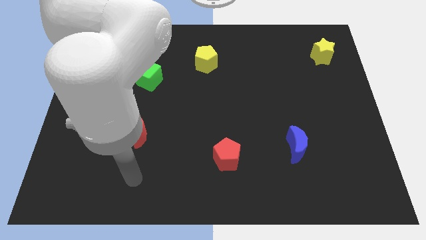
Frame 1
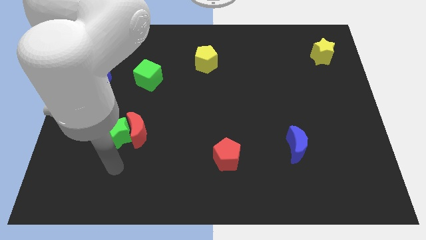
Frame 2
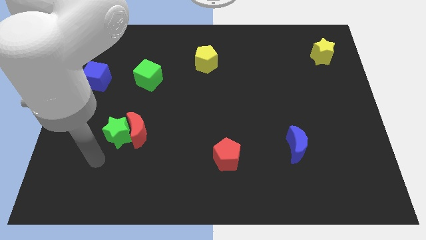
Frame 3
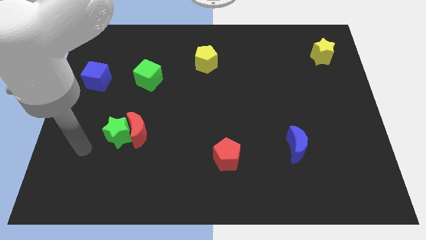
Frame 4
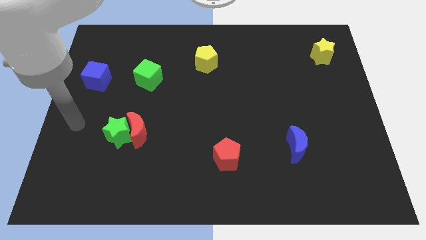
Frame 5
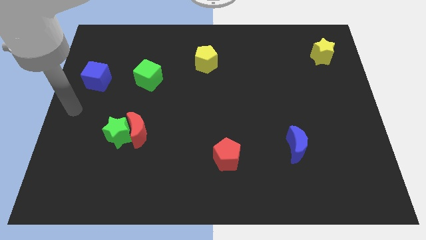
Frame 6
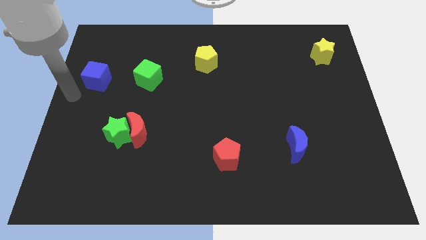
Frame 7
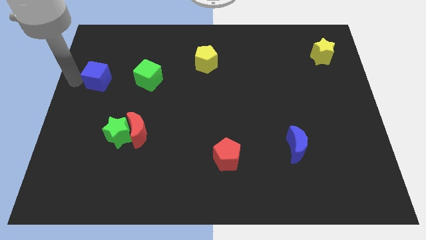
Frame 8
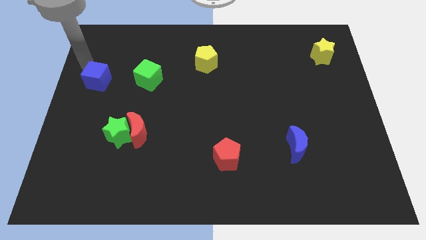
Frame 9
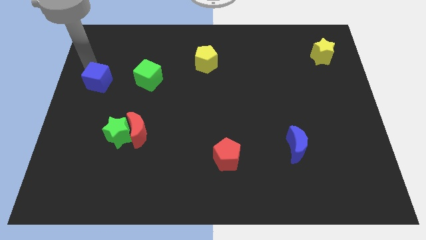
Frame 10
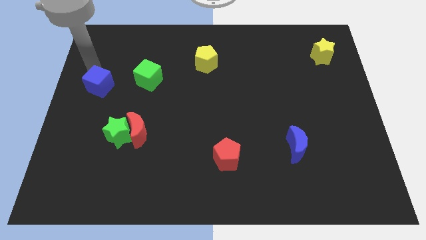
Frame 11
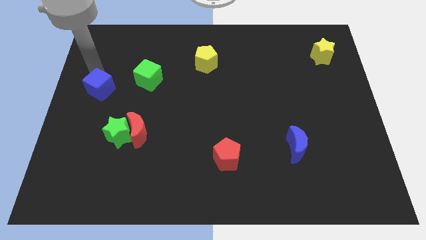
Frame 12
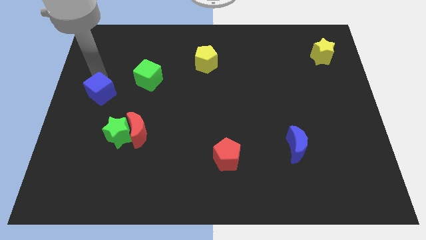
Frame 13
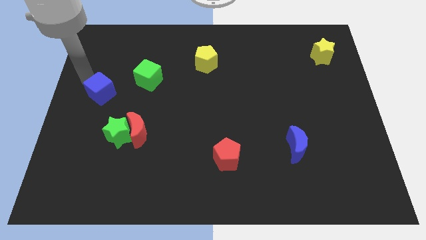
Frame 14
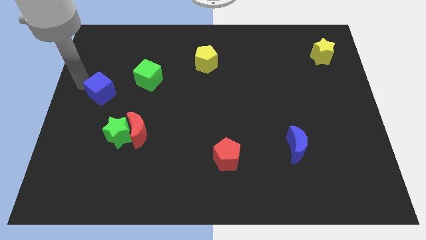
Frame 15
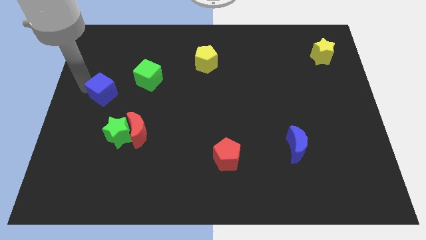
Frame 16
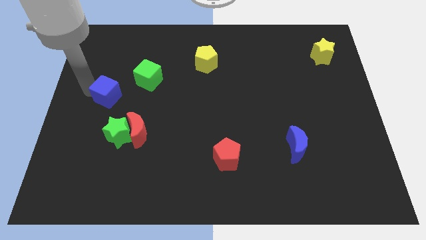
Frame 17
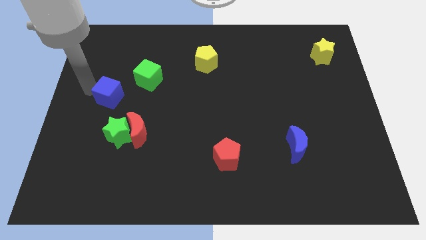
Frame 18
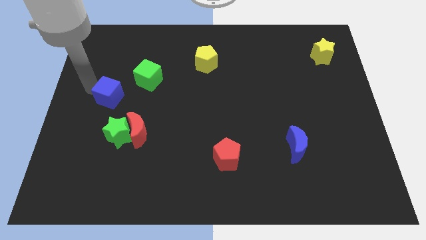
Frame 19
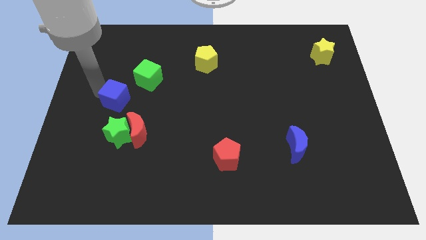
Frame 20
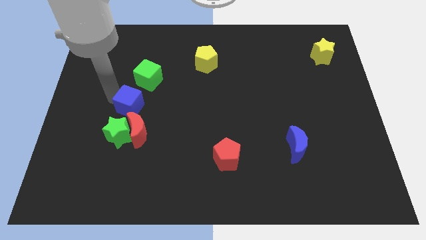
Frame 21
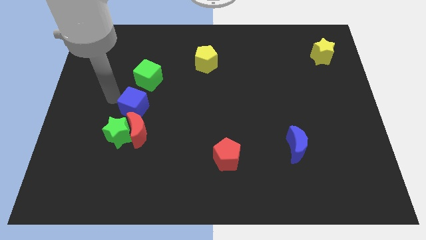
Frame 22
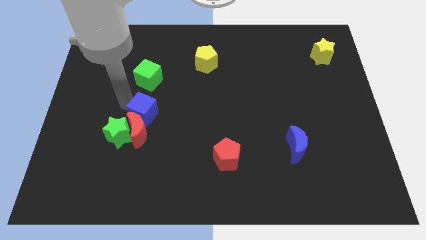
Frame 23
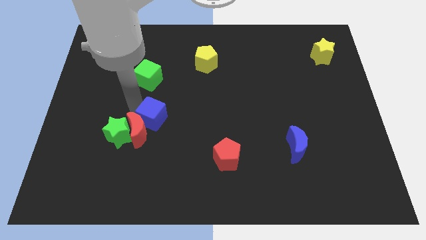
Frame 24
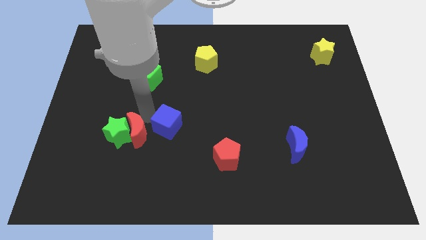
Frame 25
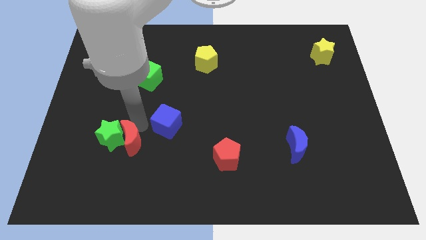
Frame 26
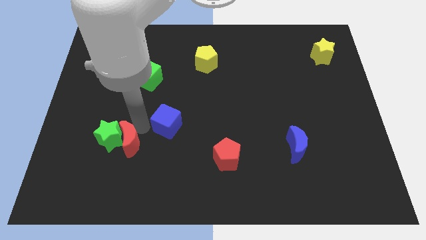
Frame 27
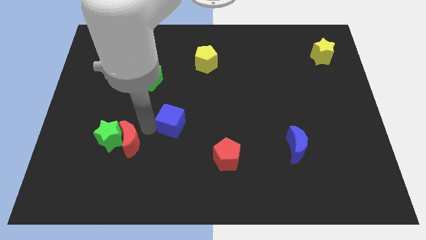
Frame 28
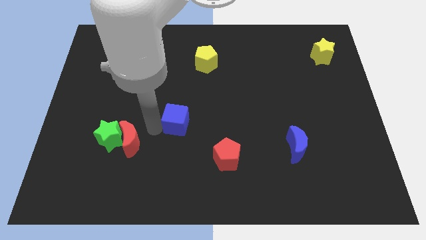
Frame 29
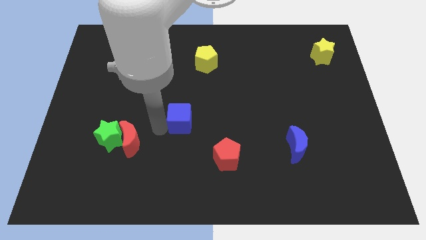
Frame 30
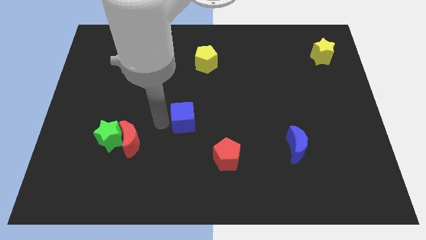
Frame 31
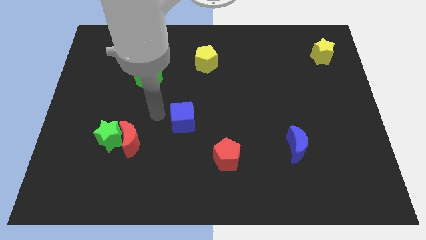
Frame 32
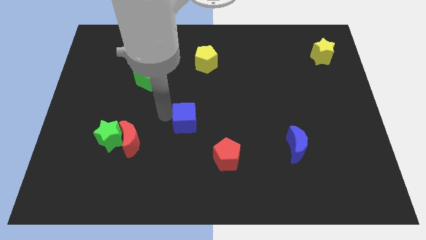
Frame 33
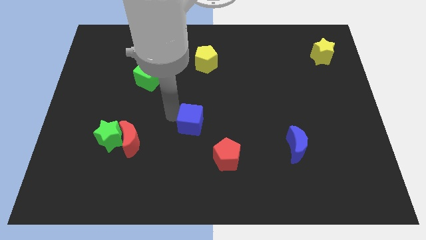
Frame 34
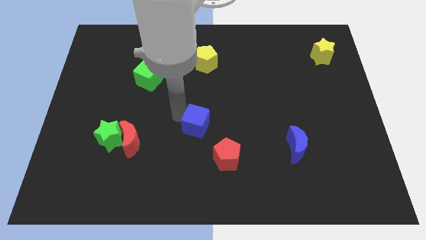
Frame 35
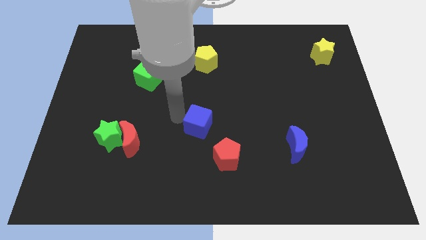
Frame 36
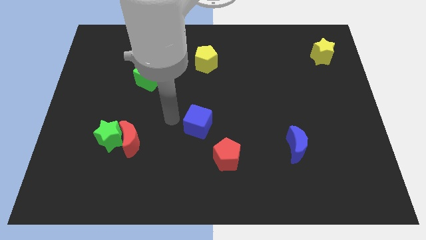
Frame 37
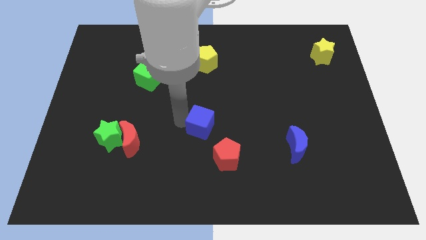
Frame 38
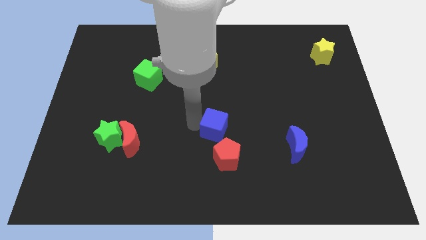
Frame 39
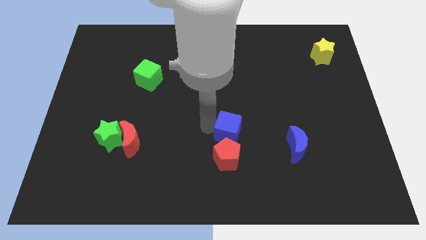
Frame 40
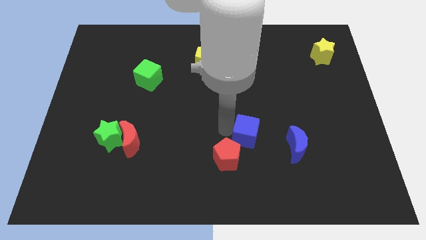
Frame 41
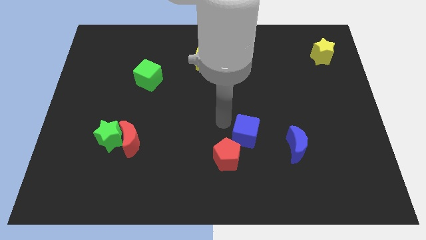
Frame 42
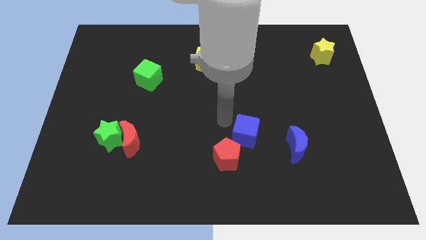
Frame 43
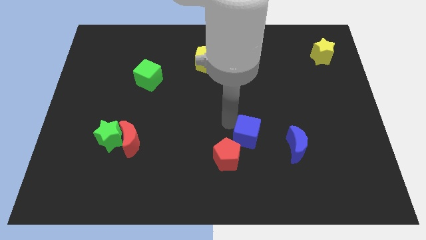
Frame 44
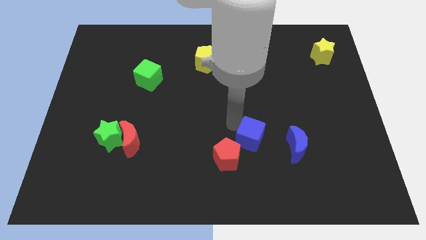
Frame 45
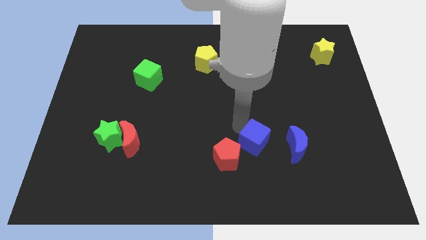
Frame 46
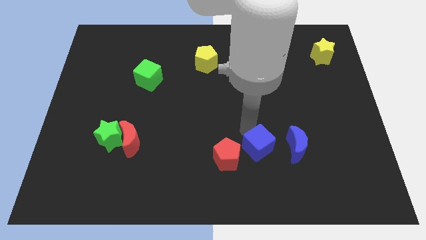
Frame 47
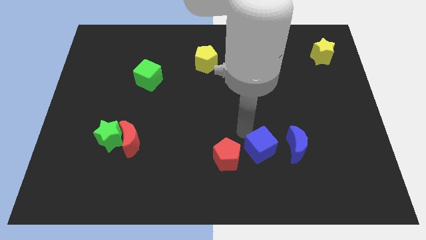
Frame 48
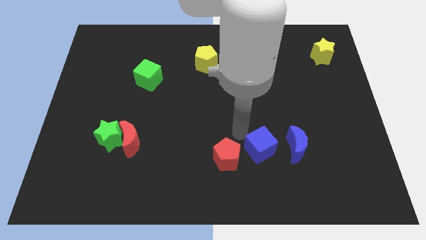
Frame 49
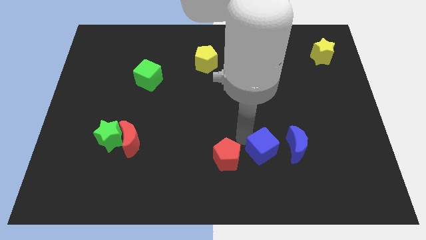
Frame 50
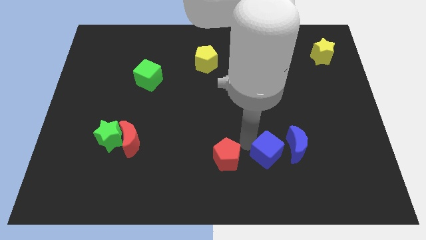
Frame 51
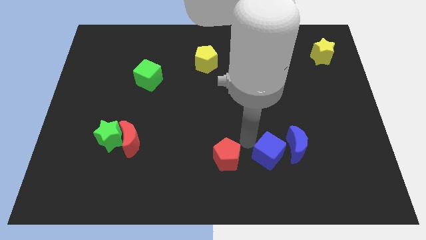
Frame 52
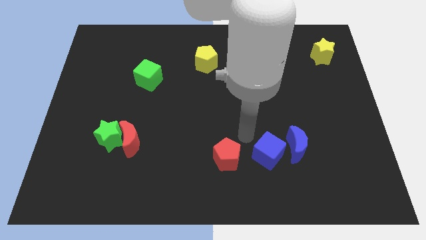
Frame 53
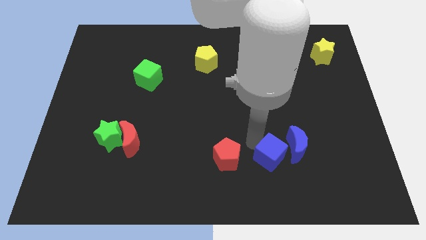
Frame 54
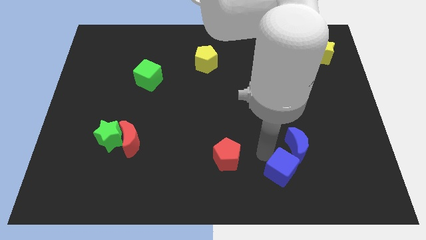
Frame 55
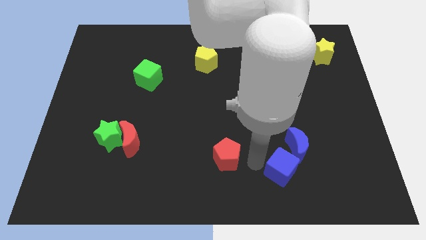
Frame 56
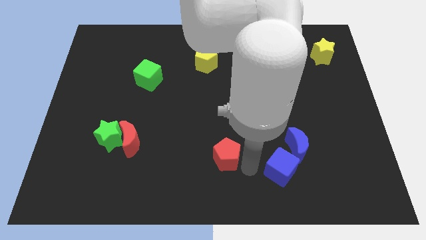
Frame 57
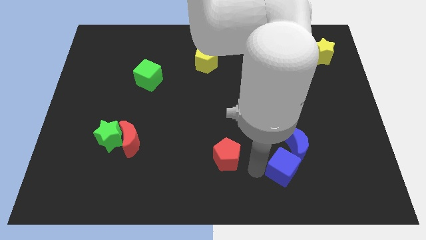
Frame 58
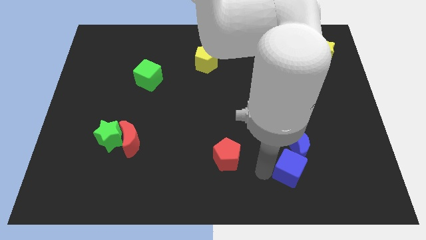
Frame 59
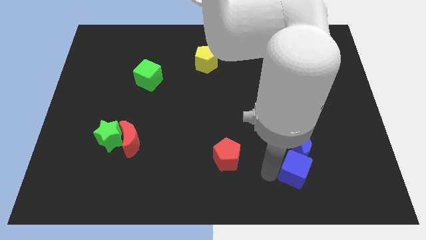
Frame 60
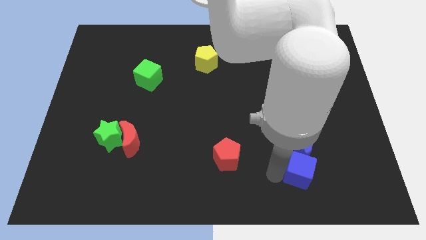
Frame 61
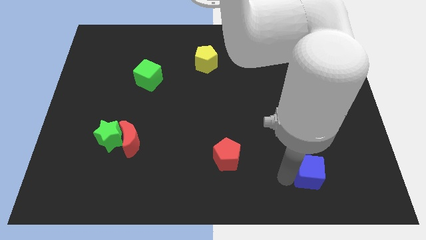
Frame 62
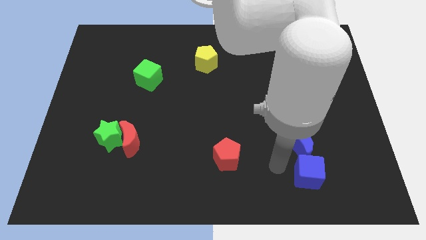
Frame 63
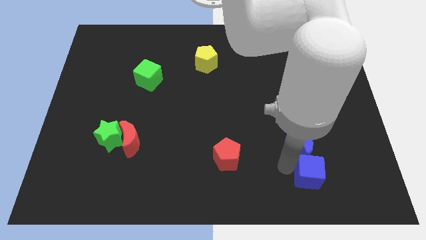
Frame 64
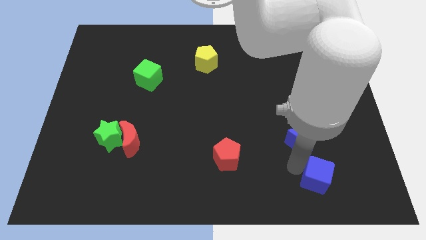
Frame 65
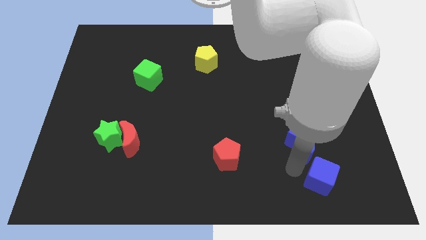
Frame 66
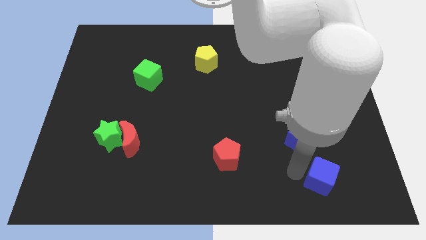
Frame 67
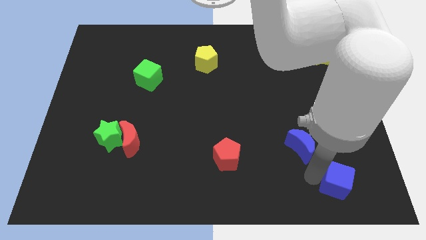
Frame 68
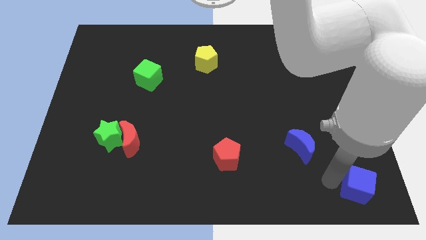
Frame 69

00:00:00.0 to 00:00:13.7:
slide the blue cube to the bottom right corner

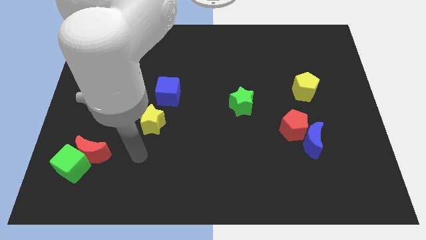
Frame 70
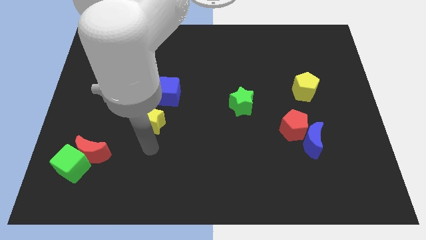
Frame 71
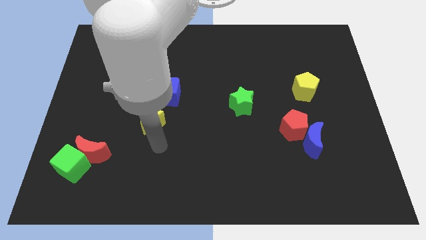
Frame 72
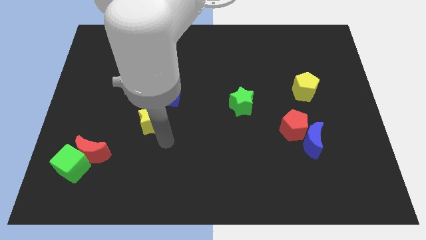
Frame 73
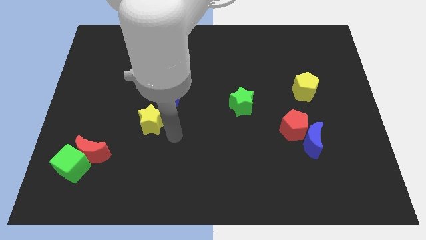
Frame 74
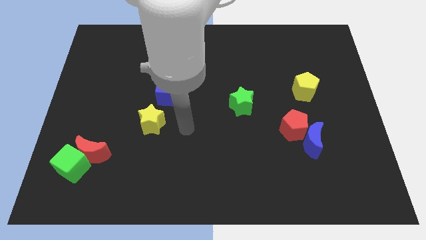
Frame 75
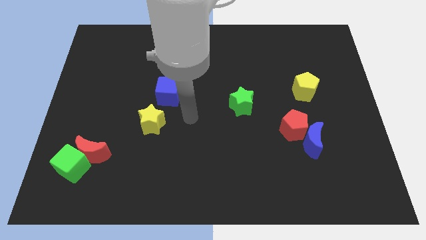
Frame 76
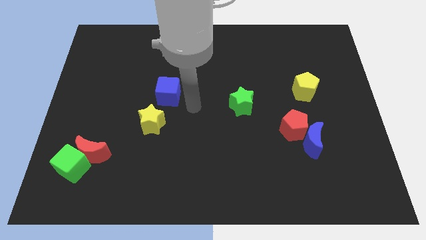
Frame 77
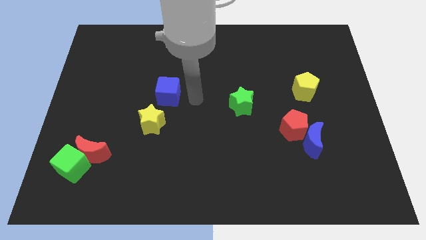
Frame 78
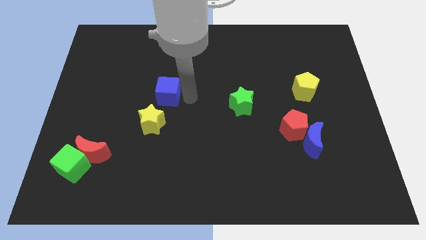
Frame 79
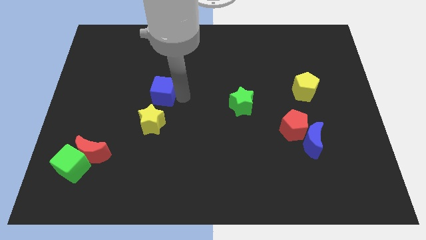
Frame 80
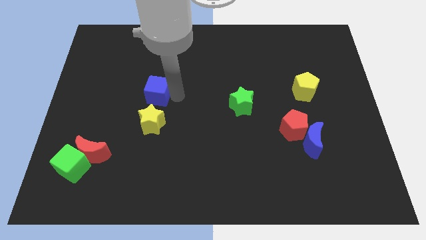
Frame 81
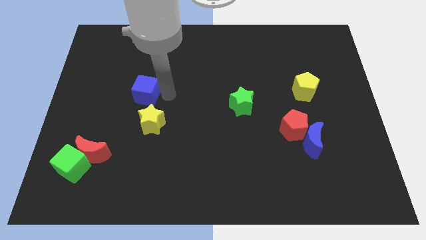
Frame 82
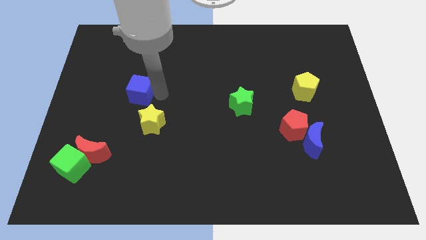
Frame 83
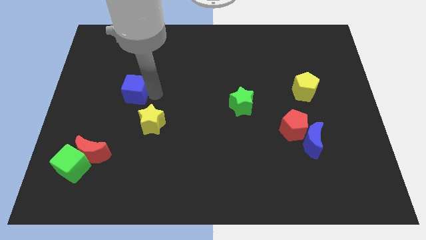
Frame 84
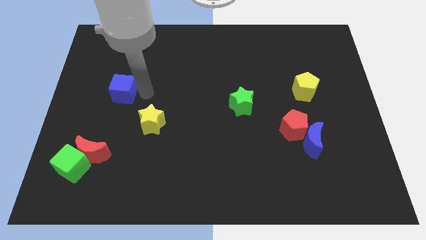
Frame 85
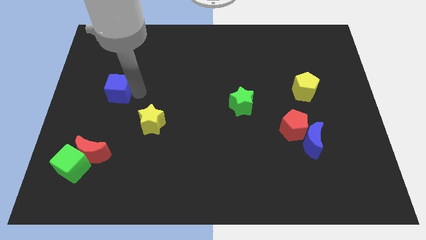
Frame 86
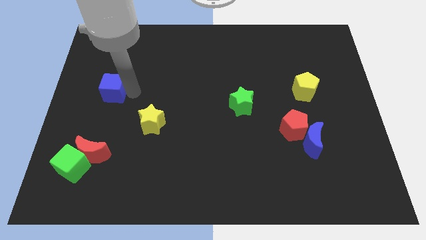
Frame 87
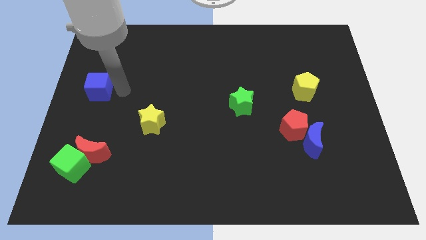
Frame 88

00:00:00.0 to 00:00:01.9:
move the blue cube to the left side of the board
